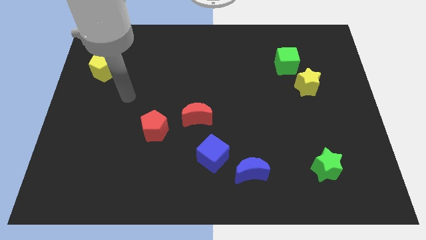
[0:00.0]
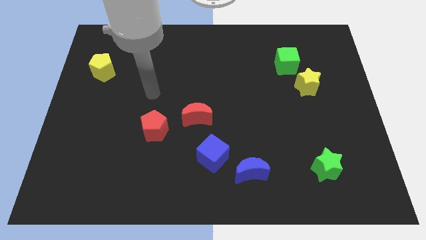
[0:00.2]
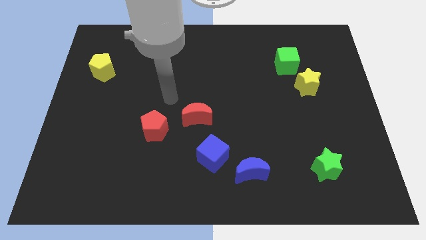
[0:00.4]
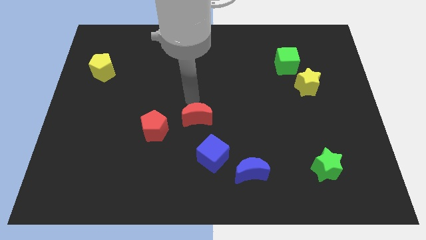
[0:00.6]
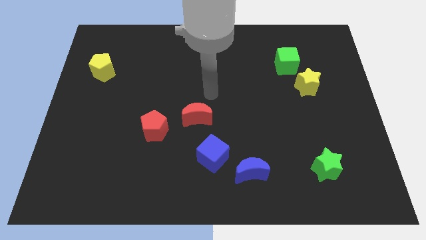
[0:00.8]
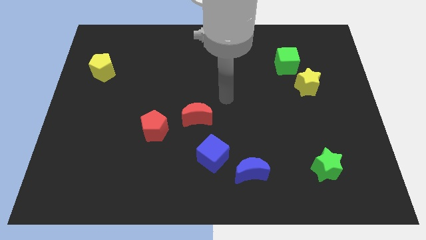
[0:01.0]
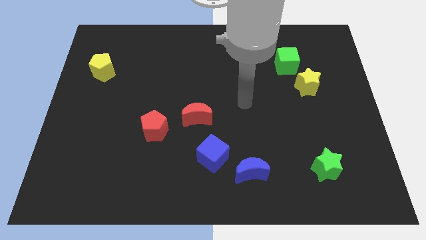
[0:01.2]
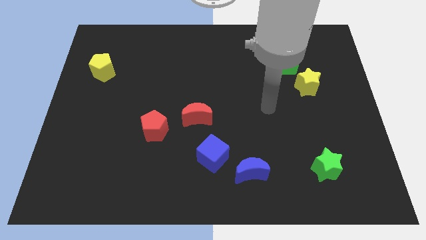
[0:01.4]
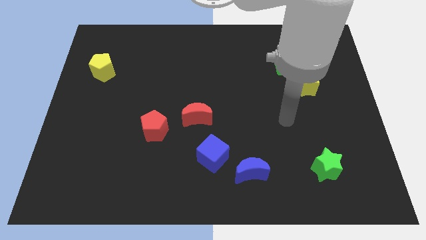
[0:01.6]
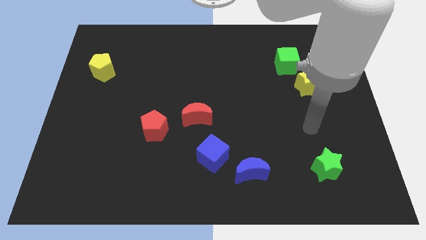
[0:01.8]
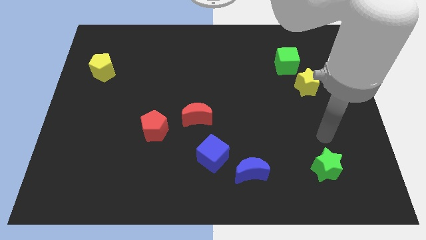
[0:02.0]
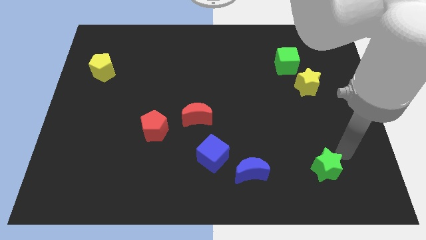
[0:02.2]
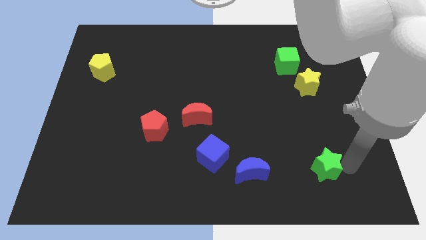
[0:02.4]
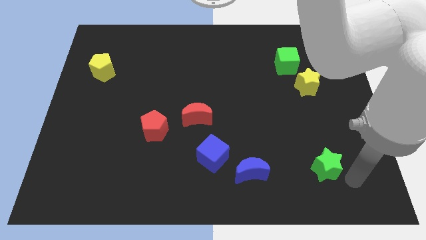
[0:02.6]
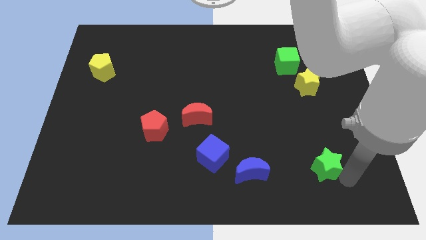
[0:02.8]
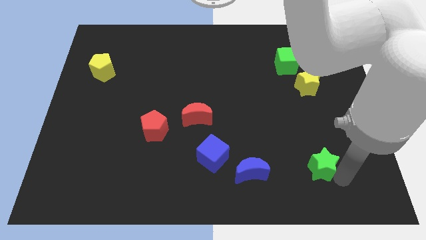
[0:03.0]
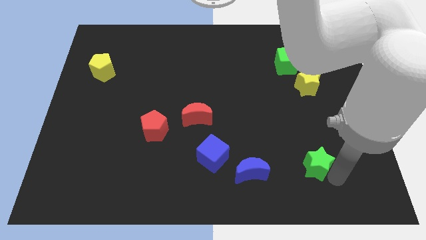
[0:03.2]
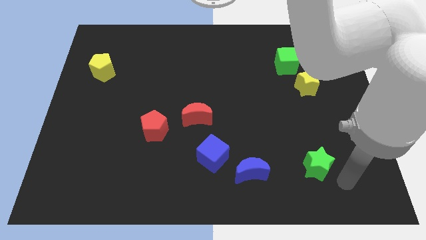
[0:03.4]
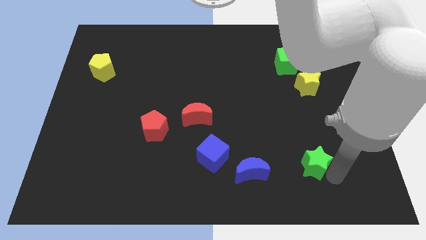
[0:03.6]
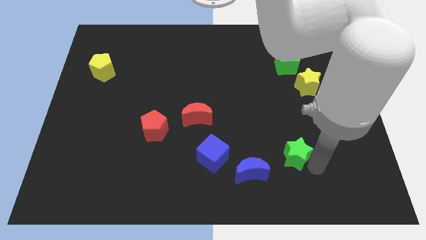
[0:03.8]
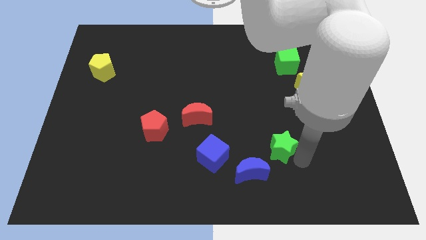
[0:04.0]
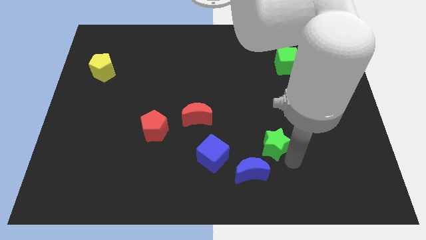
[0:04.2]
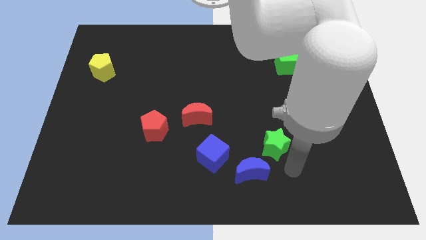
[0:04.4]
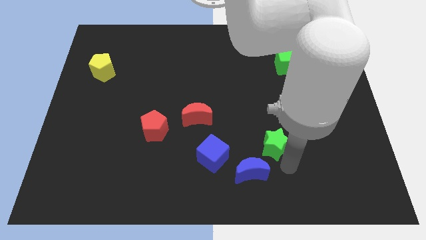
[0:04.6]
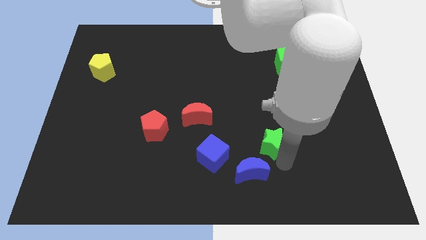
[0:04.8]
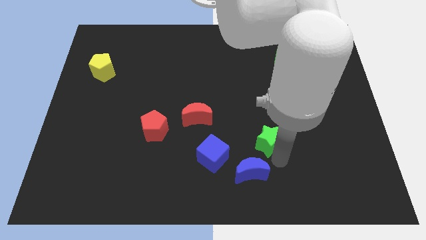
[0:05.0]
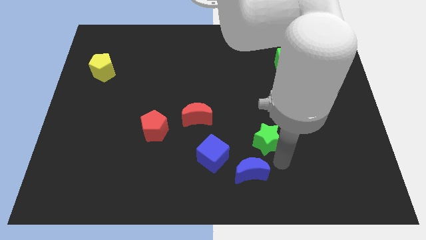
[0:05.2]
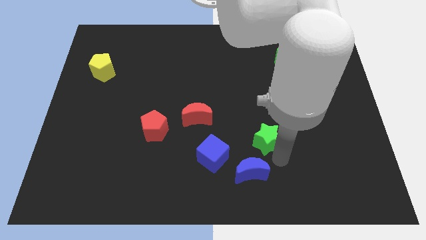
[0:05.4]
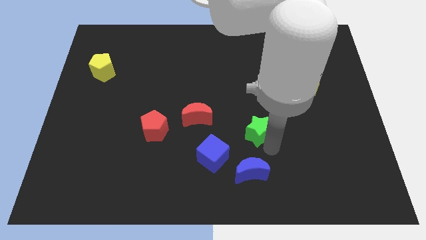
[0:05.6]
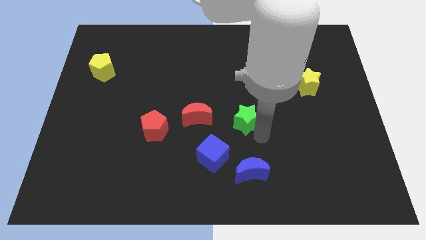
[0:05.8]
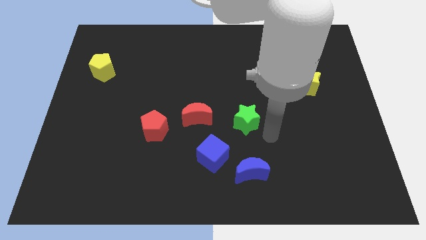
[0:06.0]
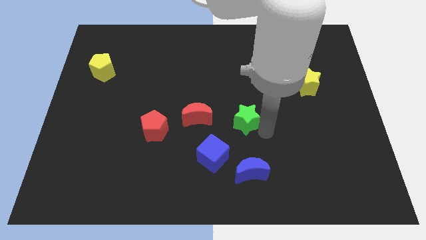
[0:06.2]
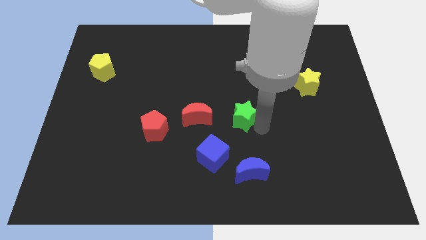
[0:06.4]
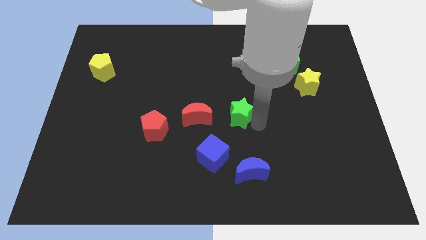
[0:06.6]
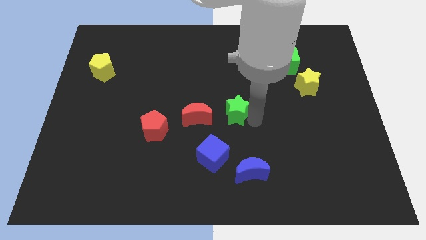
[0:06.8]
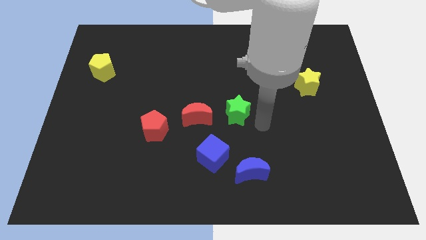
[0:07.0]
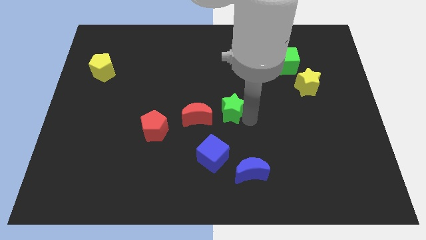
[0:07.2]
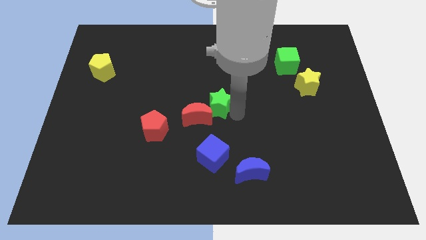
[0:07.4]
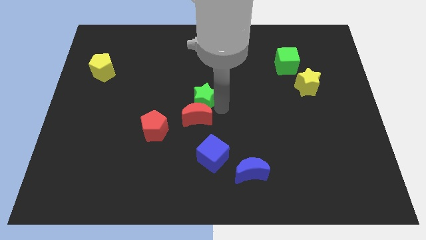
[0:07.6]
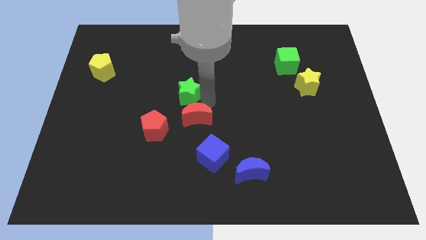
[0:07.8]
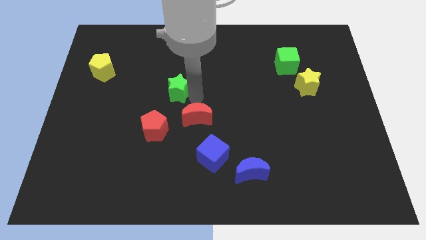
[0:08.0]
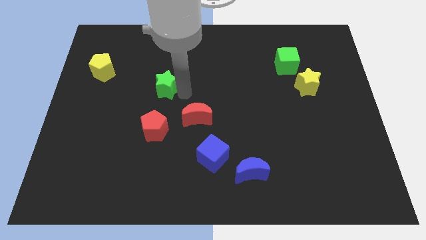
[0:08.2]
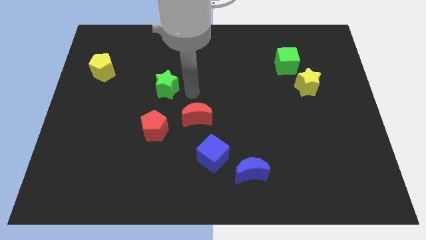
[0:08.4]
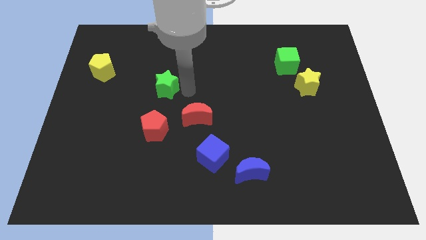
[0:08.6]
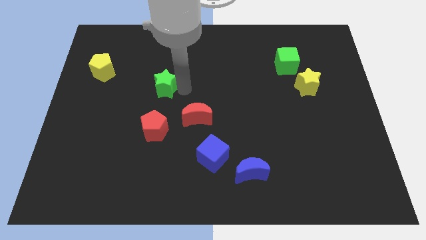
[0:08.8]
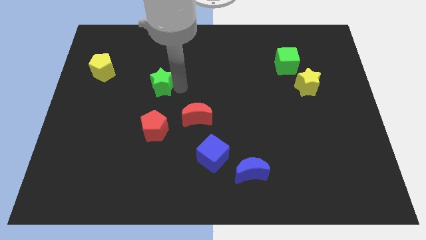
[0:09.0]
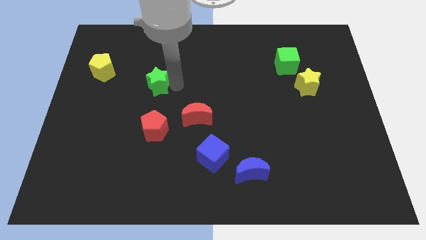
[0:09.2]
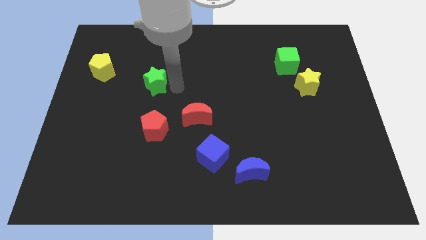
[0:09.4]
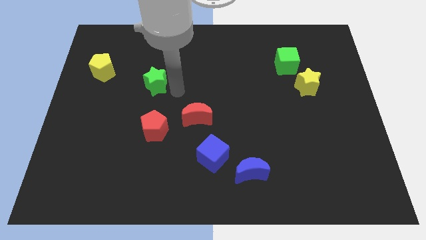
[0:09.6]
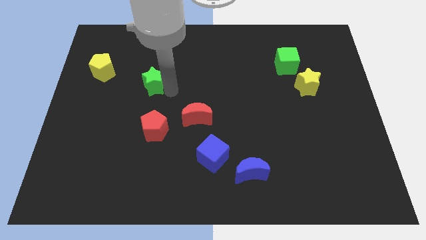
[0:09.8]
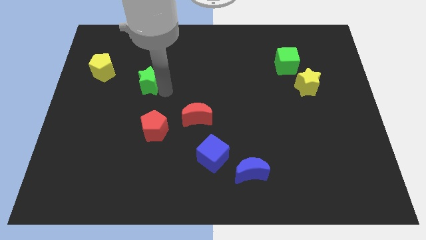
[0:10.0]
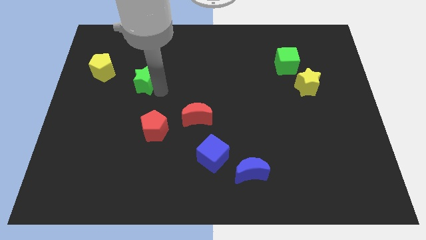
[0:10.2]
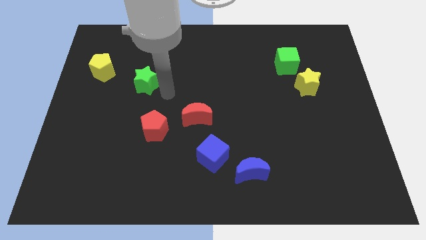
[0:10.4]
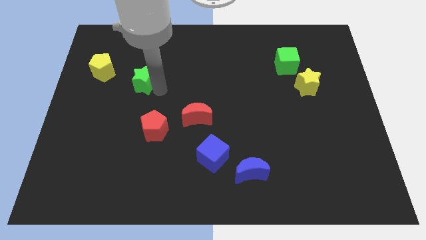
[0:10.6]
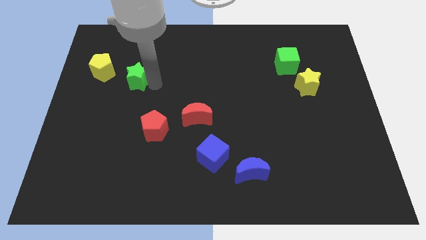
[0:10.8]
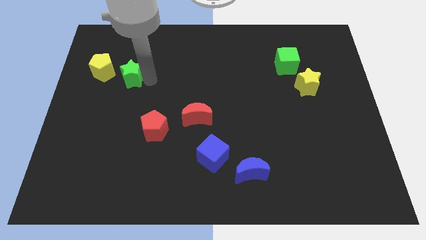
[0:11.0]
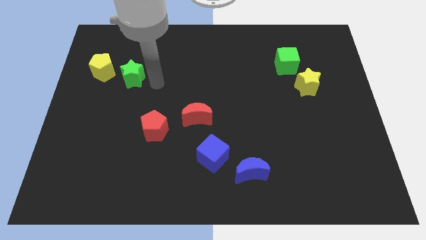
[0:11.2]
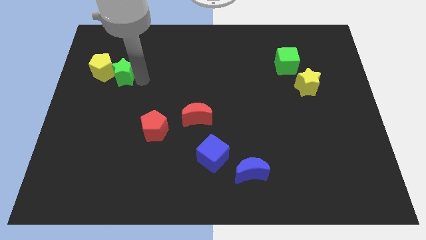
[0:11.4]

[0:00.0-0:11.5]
push the green star towards the yellow pentagon

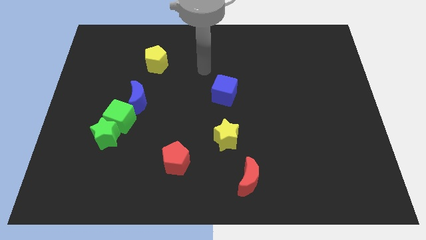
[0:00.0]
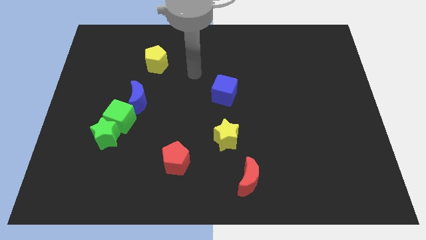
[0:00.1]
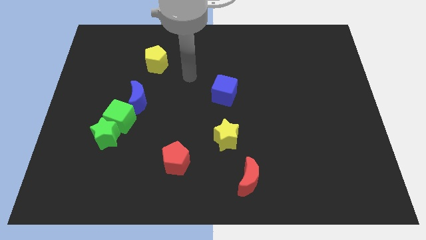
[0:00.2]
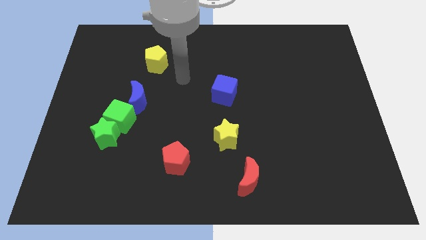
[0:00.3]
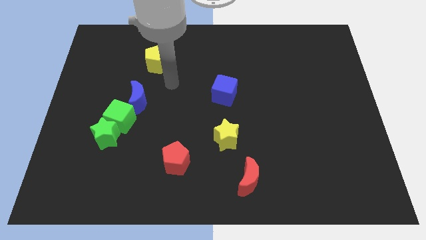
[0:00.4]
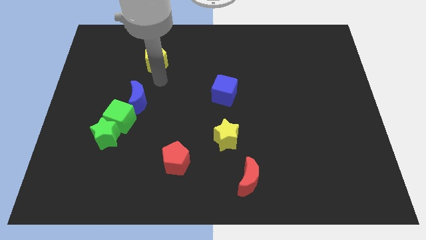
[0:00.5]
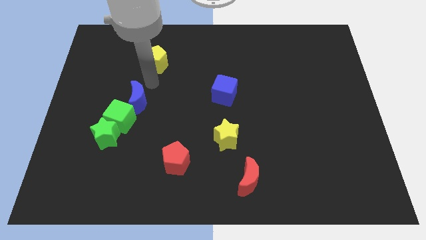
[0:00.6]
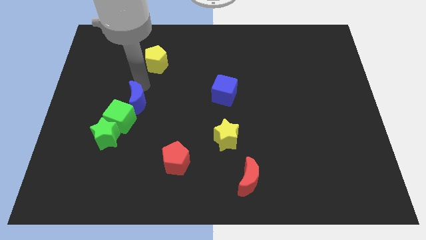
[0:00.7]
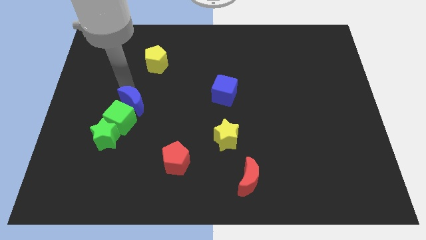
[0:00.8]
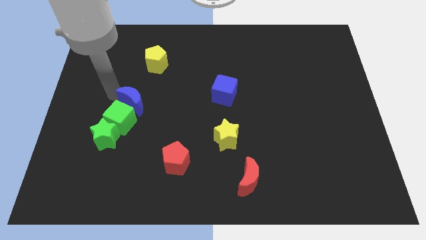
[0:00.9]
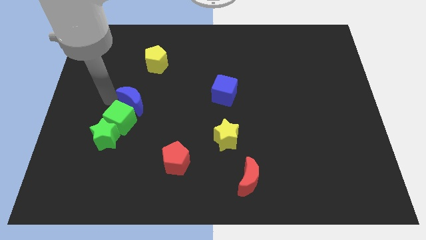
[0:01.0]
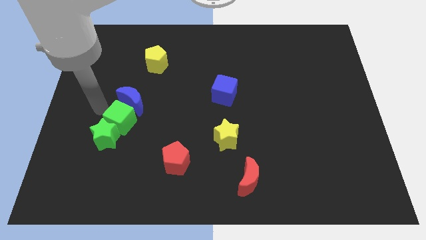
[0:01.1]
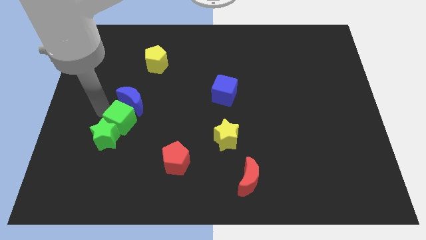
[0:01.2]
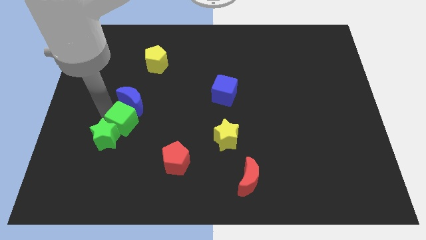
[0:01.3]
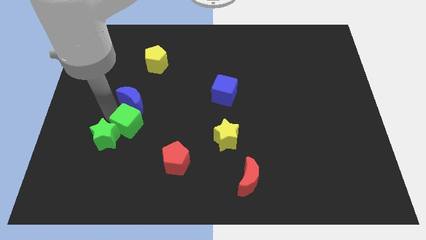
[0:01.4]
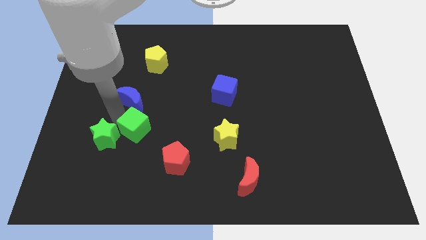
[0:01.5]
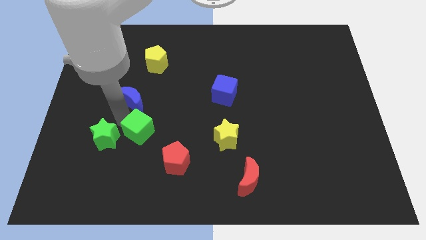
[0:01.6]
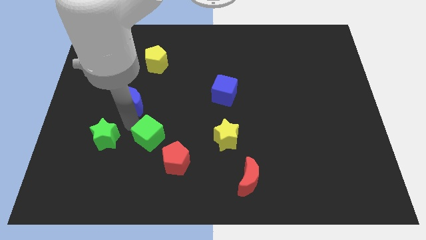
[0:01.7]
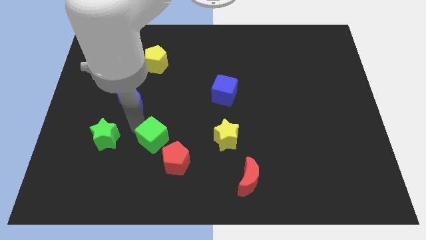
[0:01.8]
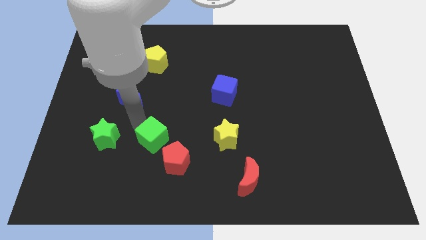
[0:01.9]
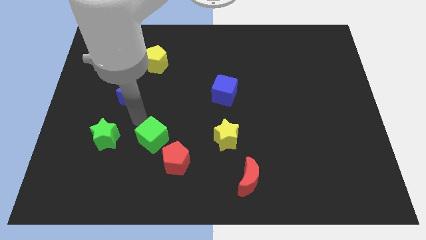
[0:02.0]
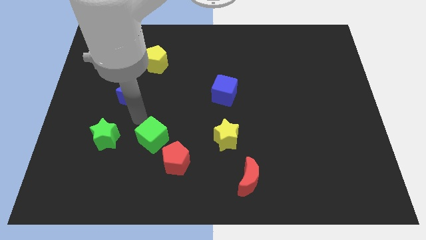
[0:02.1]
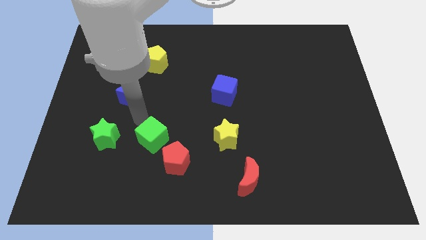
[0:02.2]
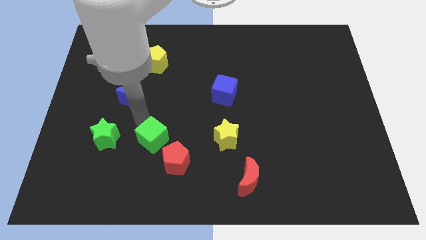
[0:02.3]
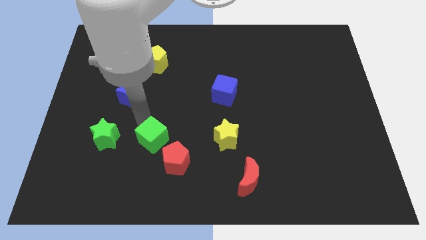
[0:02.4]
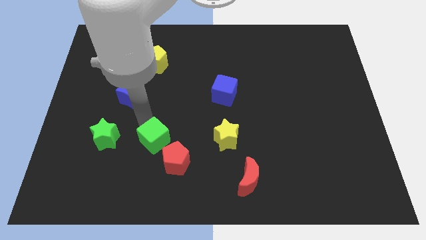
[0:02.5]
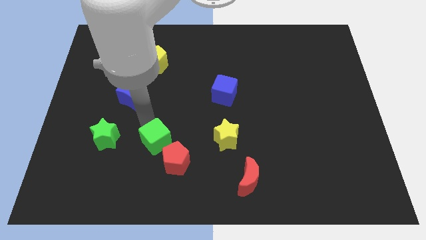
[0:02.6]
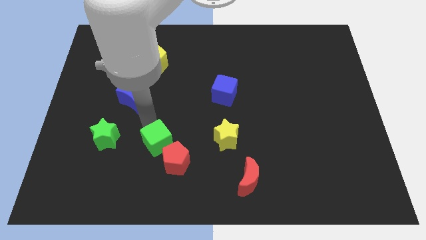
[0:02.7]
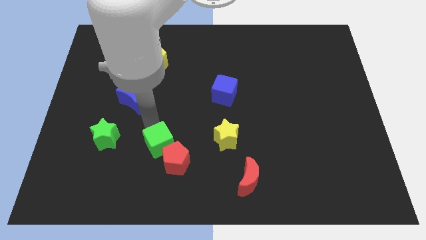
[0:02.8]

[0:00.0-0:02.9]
push the green cube to the red pentagon
